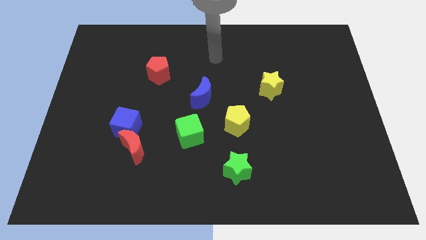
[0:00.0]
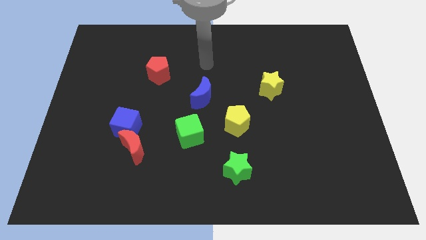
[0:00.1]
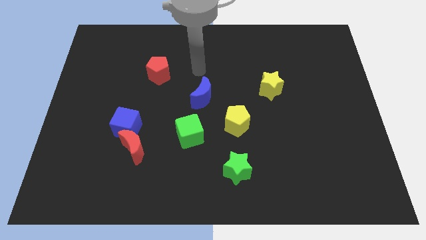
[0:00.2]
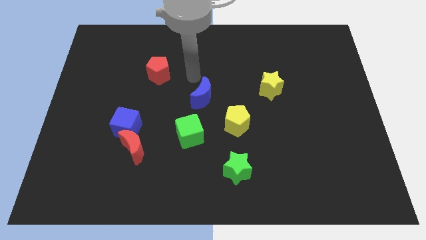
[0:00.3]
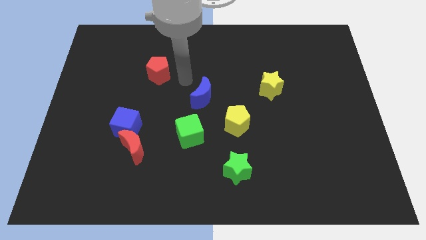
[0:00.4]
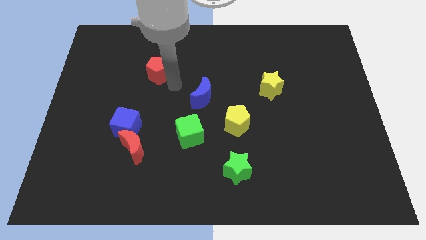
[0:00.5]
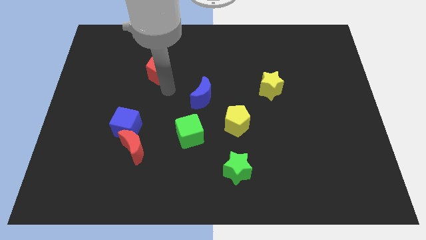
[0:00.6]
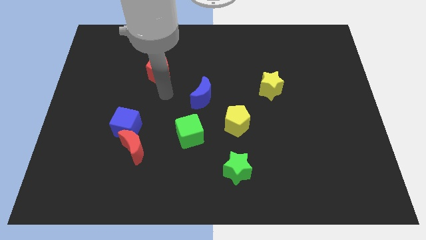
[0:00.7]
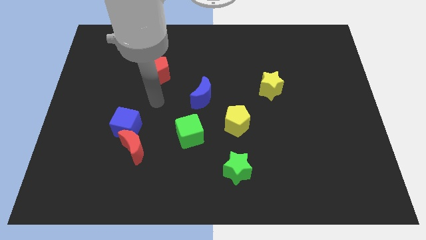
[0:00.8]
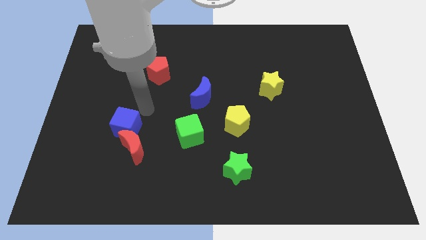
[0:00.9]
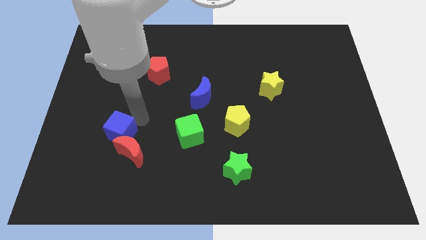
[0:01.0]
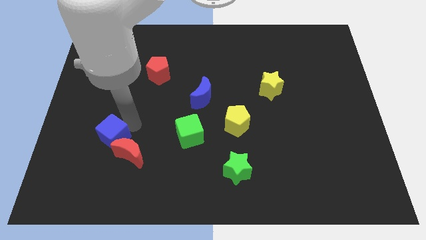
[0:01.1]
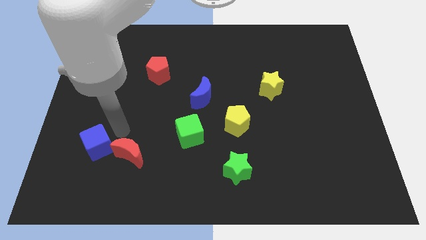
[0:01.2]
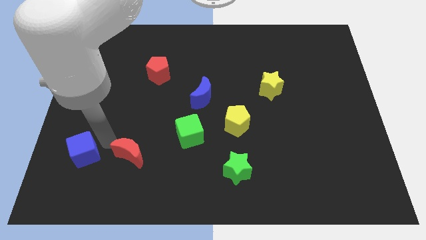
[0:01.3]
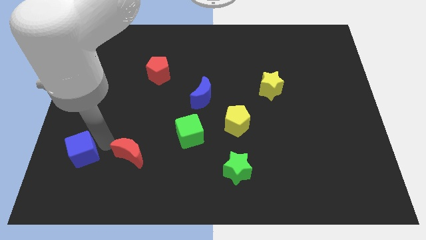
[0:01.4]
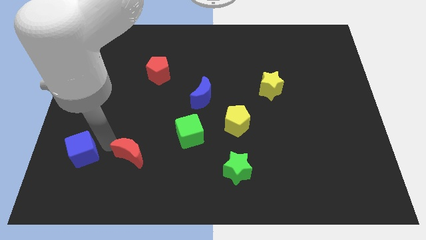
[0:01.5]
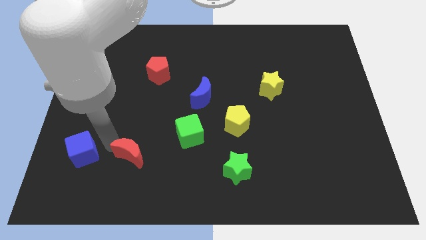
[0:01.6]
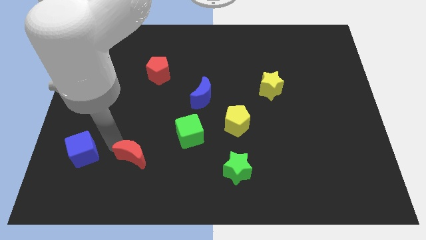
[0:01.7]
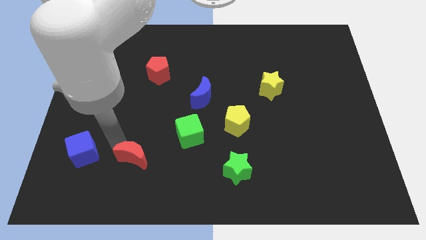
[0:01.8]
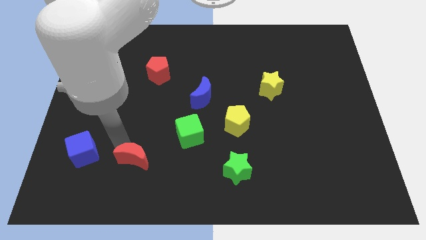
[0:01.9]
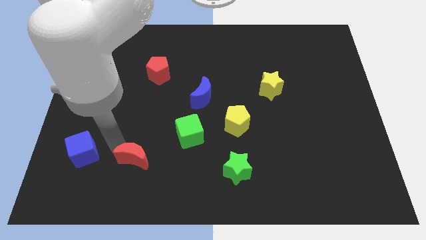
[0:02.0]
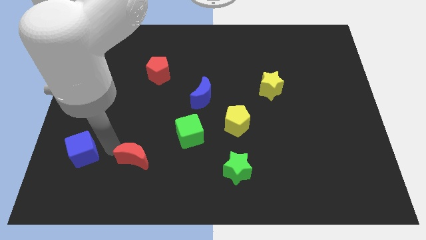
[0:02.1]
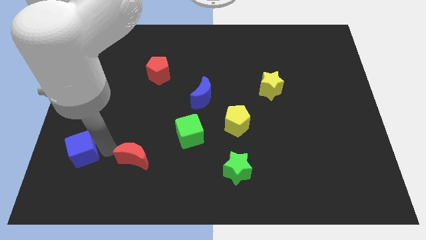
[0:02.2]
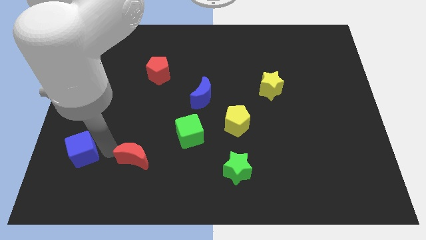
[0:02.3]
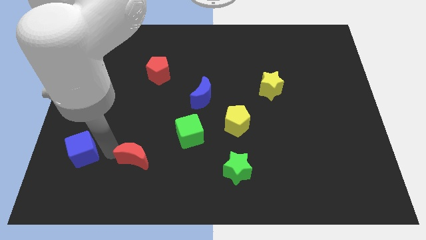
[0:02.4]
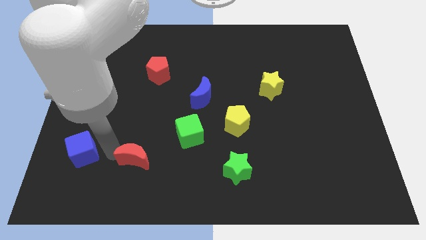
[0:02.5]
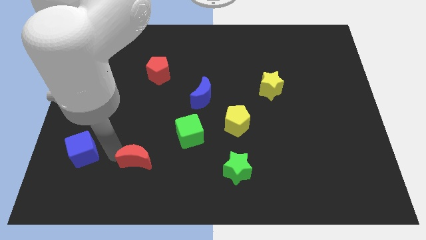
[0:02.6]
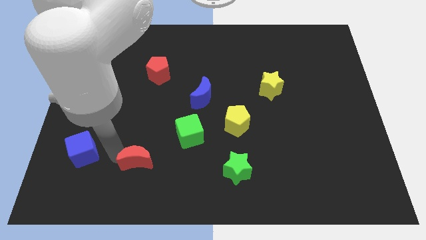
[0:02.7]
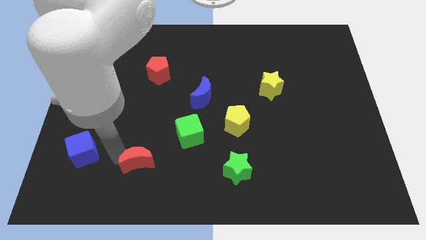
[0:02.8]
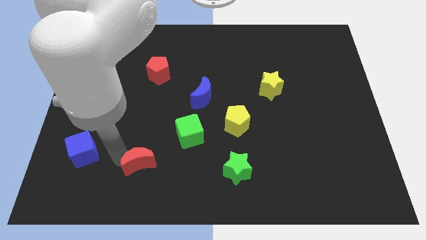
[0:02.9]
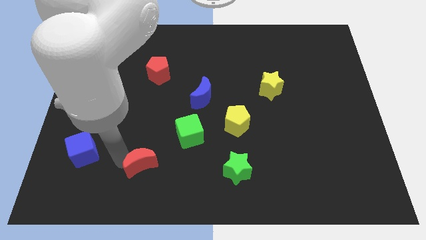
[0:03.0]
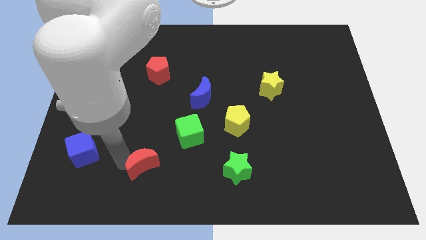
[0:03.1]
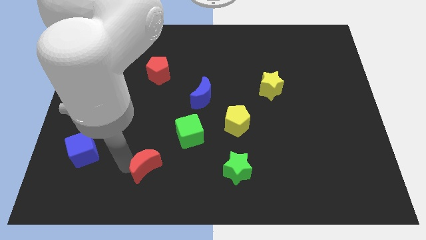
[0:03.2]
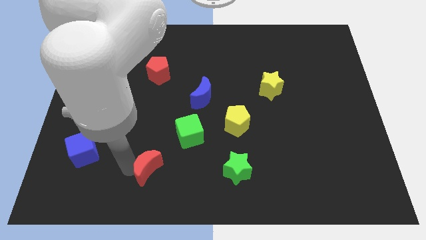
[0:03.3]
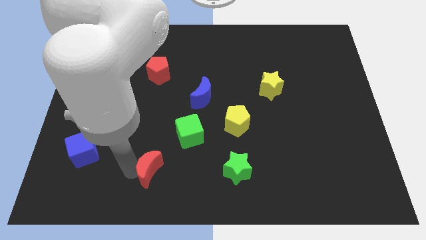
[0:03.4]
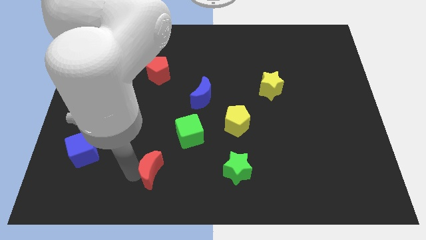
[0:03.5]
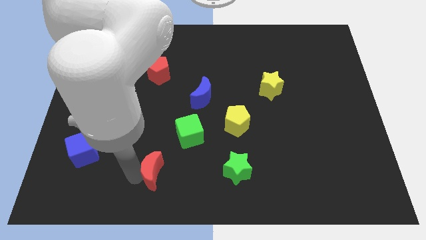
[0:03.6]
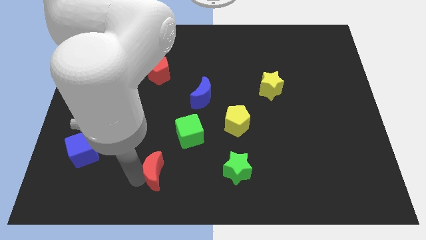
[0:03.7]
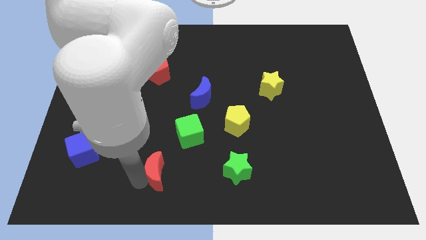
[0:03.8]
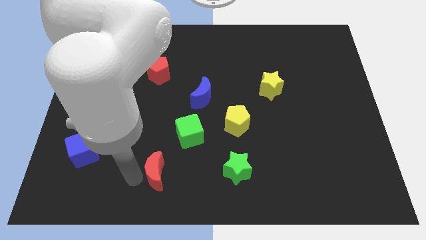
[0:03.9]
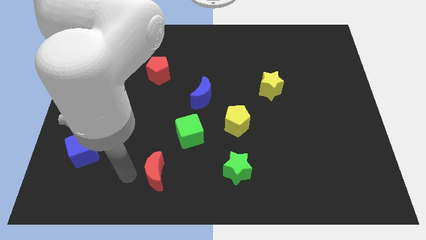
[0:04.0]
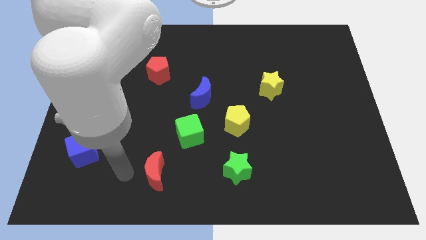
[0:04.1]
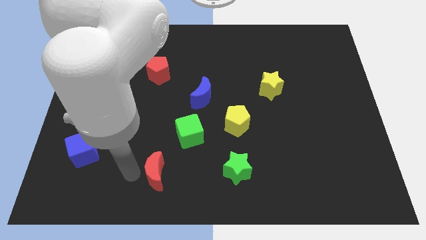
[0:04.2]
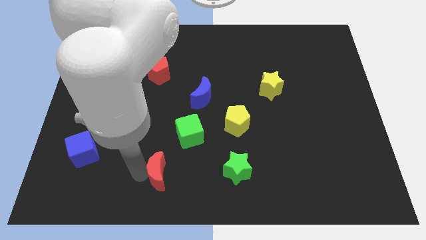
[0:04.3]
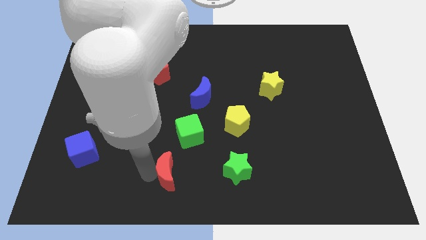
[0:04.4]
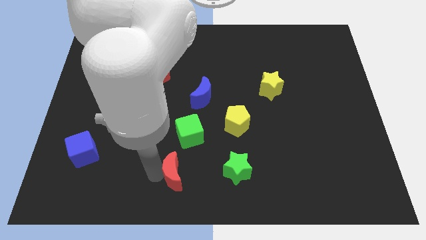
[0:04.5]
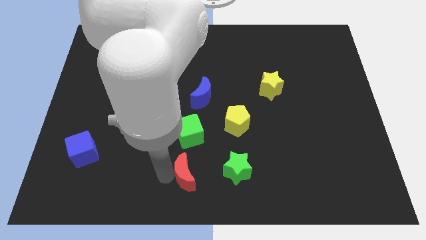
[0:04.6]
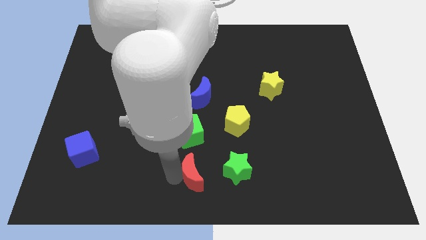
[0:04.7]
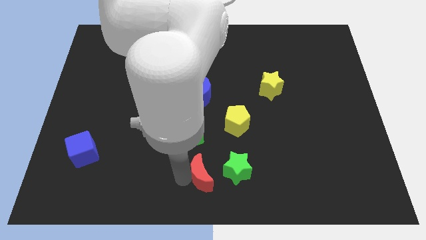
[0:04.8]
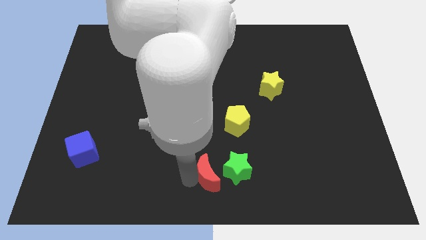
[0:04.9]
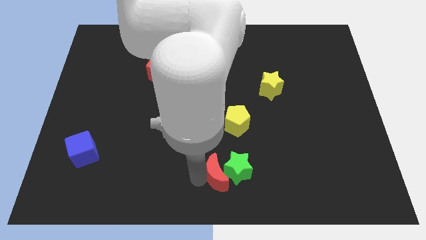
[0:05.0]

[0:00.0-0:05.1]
push the red moon to the green star

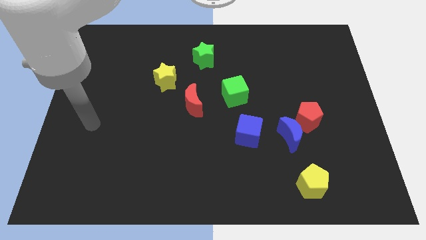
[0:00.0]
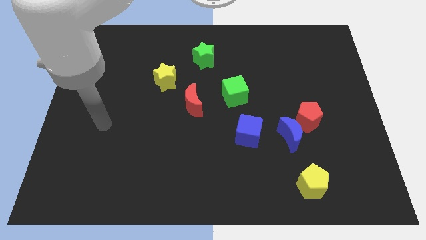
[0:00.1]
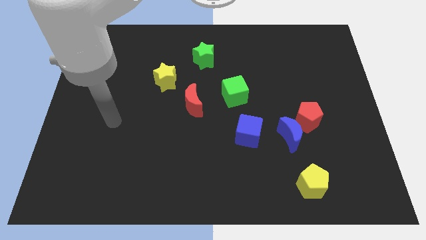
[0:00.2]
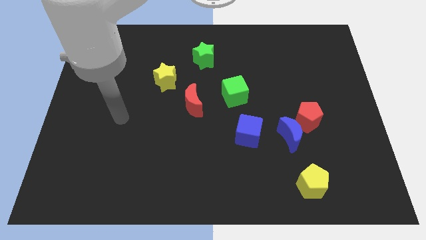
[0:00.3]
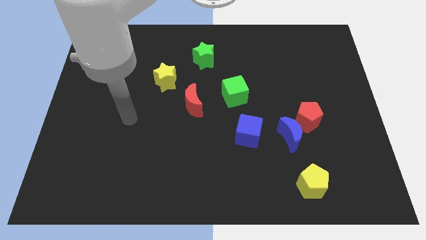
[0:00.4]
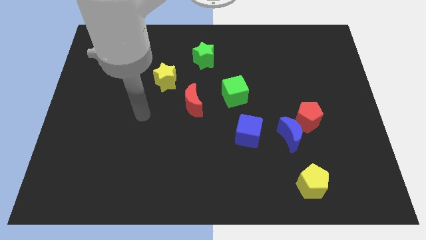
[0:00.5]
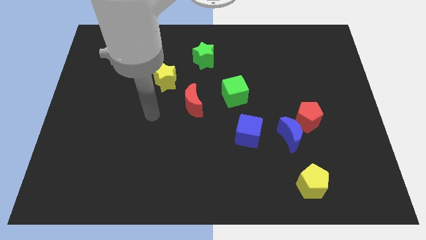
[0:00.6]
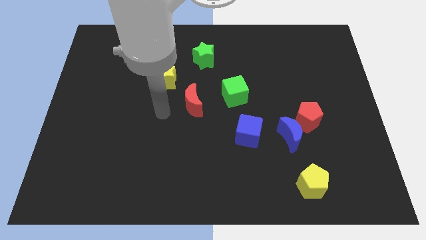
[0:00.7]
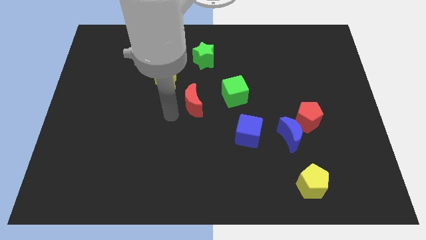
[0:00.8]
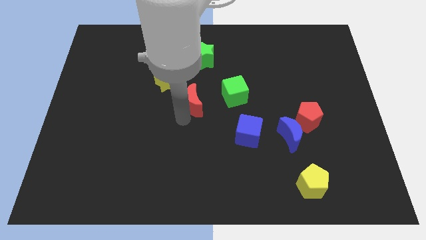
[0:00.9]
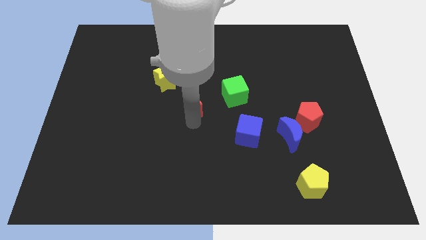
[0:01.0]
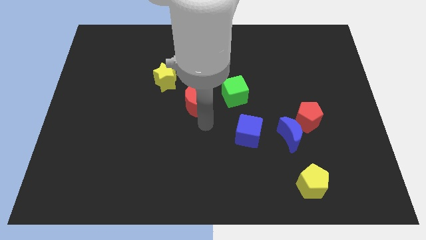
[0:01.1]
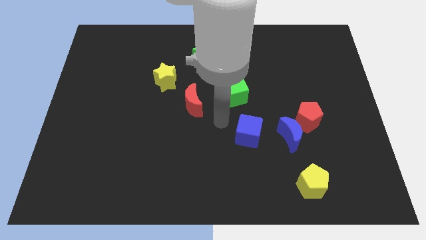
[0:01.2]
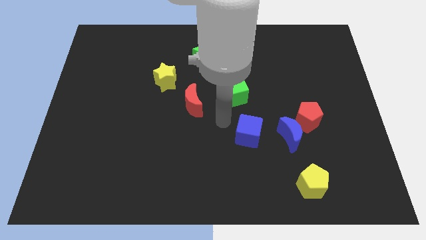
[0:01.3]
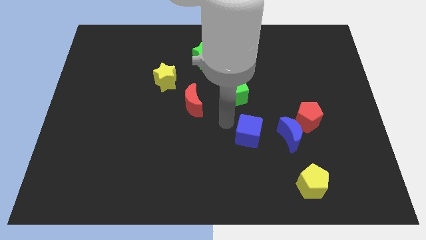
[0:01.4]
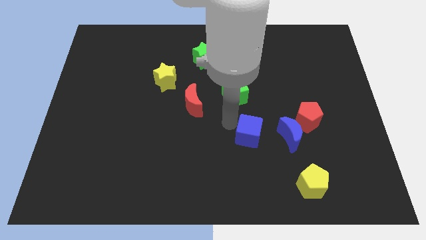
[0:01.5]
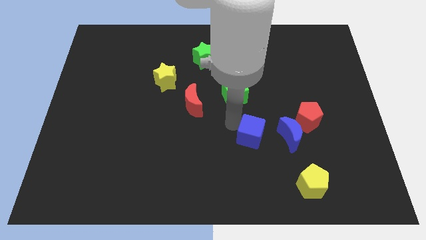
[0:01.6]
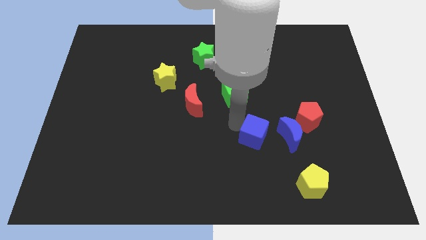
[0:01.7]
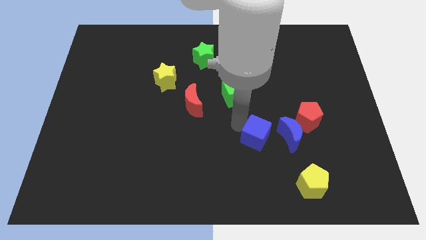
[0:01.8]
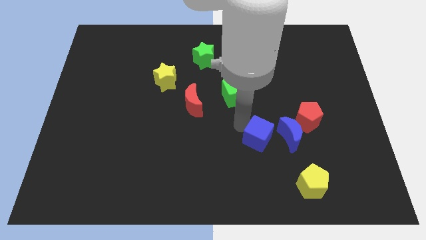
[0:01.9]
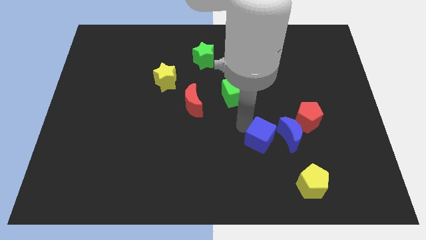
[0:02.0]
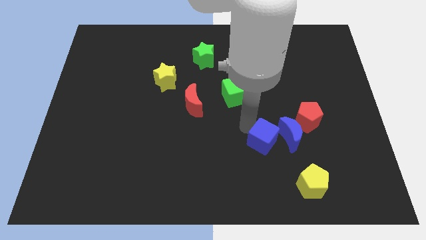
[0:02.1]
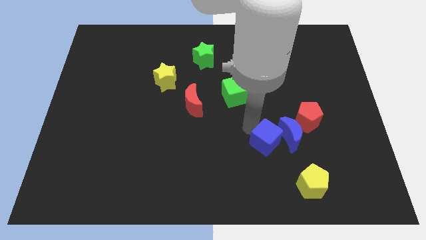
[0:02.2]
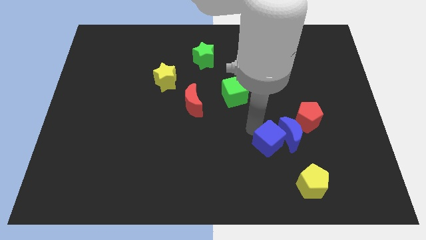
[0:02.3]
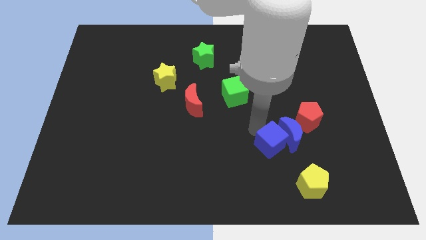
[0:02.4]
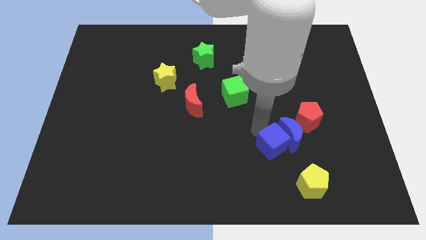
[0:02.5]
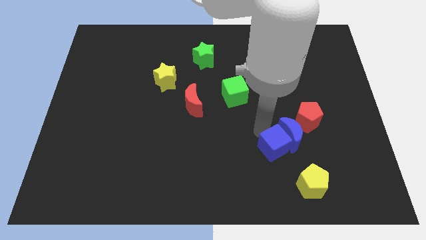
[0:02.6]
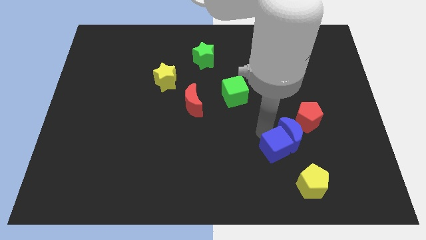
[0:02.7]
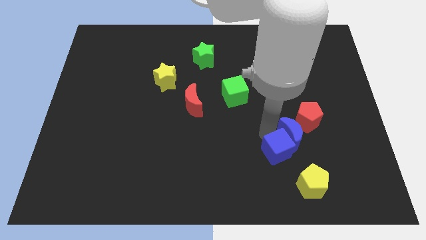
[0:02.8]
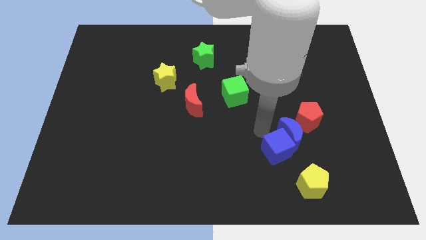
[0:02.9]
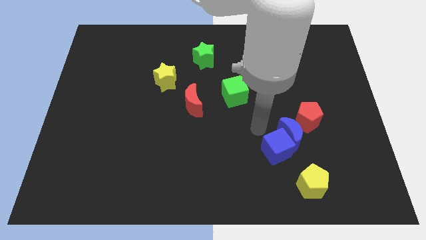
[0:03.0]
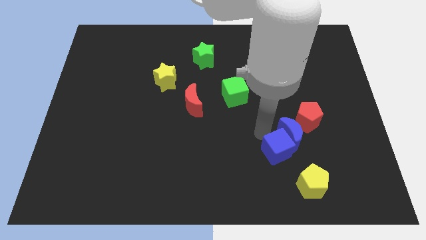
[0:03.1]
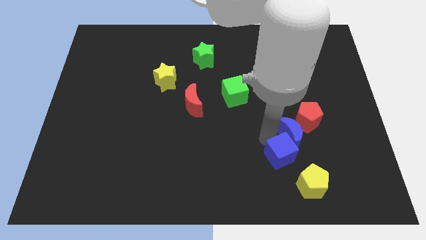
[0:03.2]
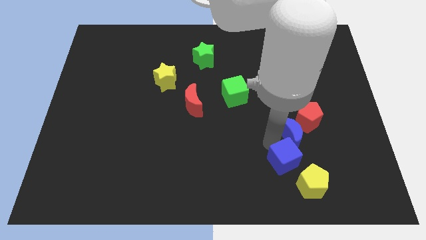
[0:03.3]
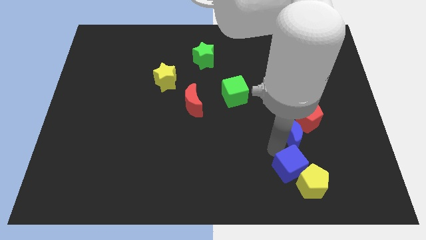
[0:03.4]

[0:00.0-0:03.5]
move the blue cube next to the yellow pentagon
